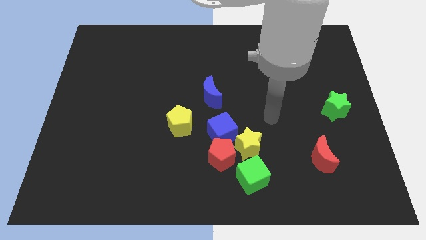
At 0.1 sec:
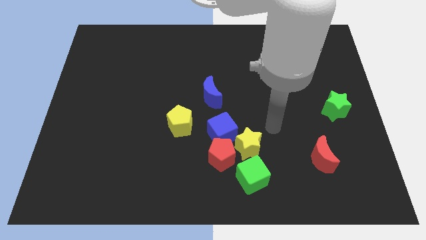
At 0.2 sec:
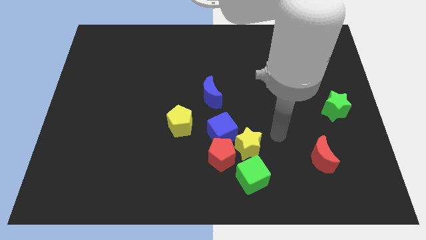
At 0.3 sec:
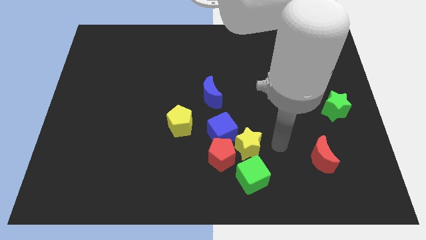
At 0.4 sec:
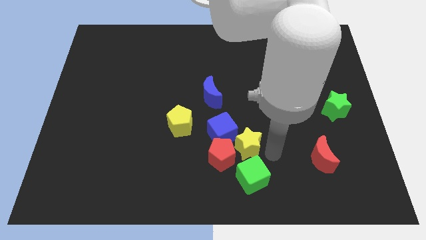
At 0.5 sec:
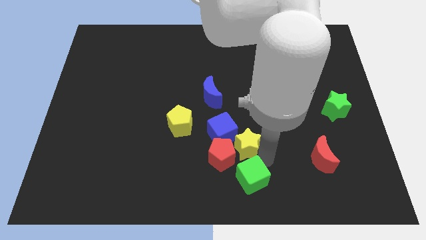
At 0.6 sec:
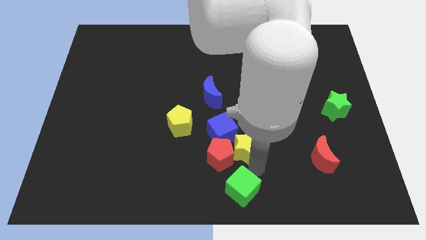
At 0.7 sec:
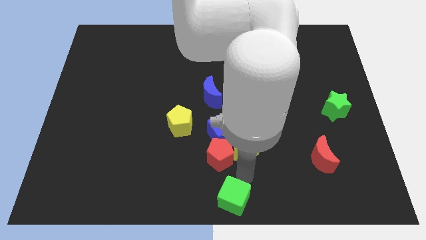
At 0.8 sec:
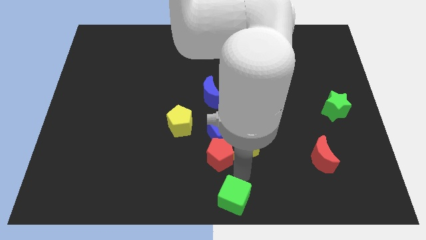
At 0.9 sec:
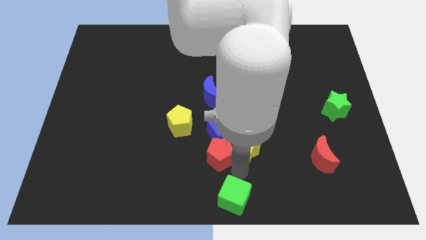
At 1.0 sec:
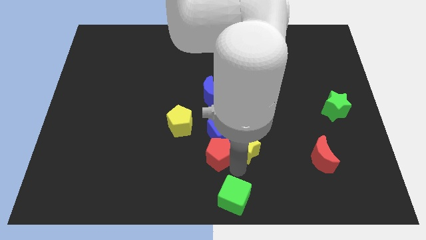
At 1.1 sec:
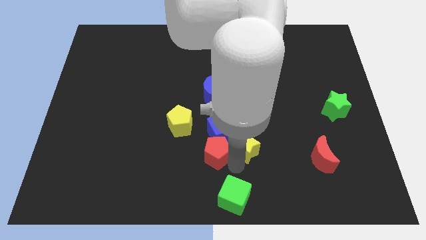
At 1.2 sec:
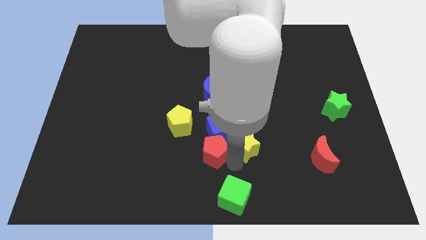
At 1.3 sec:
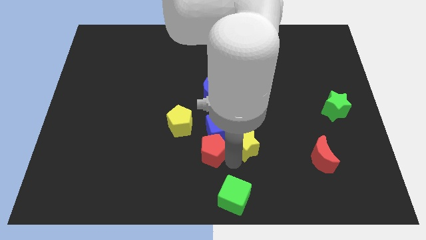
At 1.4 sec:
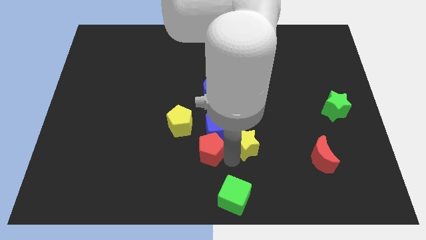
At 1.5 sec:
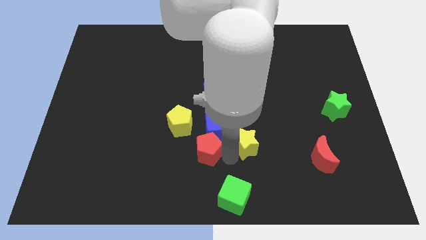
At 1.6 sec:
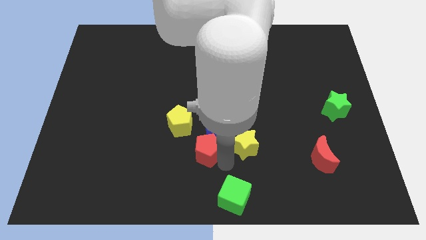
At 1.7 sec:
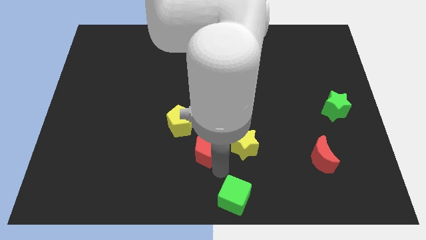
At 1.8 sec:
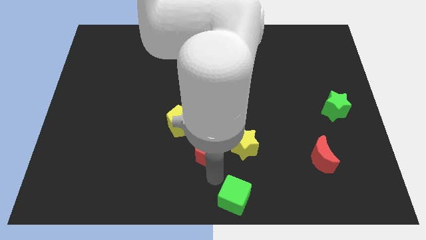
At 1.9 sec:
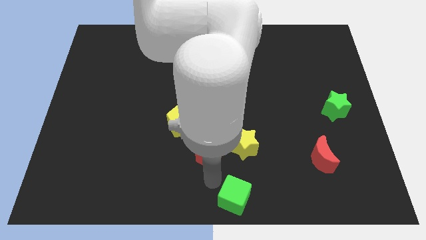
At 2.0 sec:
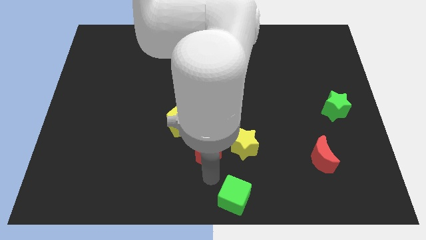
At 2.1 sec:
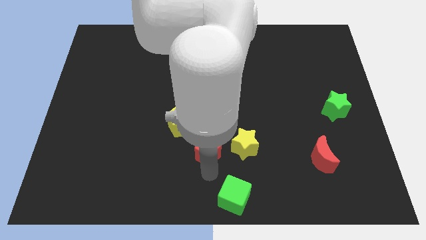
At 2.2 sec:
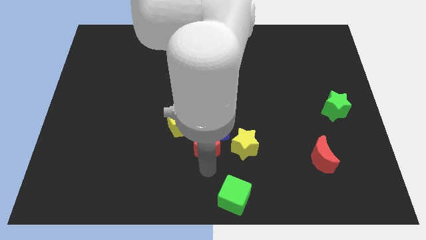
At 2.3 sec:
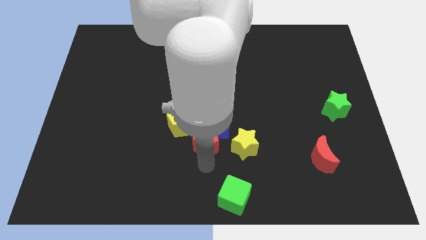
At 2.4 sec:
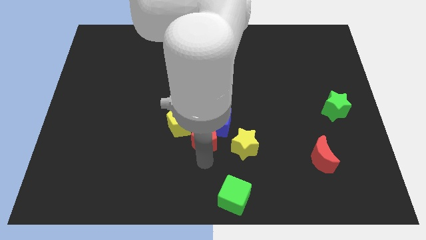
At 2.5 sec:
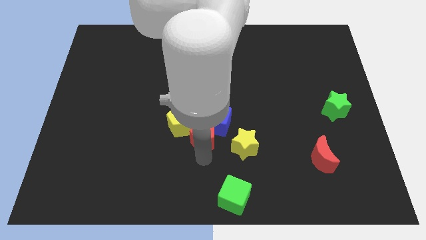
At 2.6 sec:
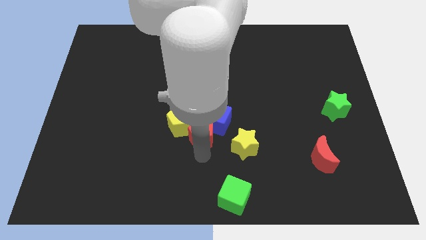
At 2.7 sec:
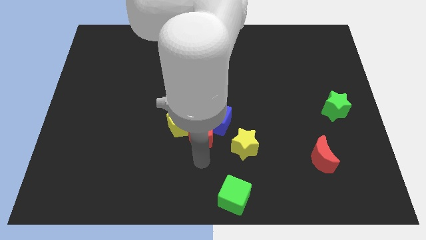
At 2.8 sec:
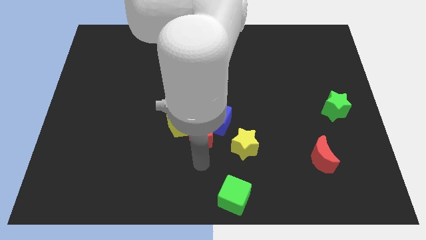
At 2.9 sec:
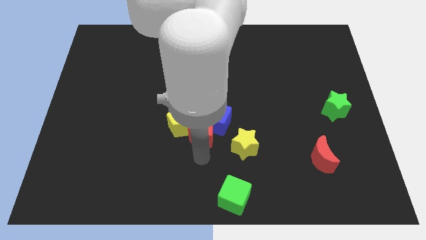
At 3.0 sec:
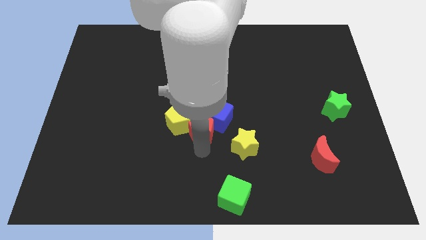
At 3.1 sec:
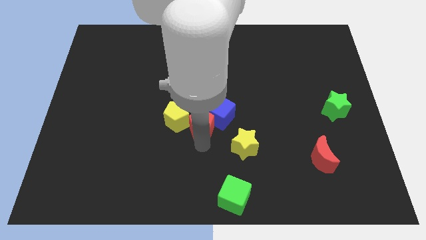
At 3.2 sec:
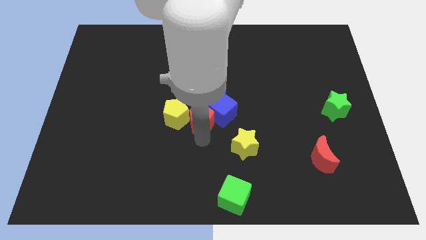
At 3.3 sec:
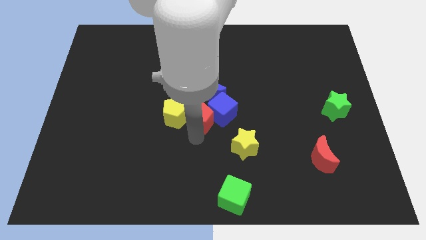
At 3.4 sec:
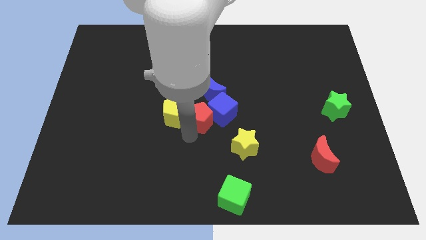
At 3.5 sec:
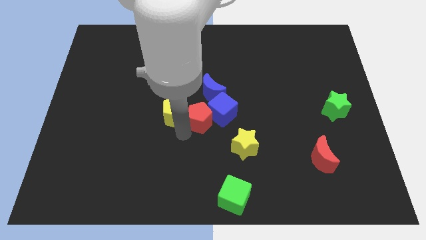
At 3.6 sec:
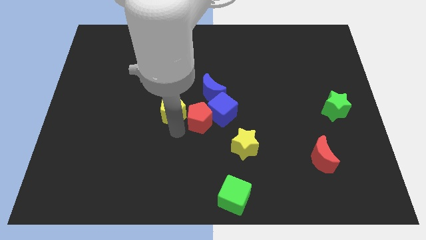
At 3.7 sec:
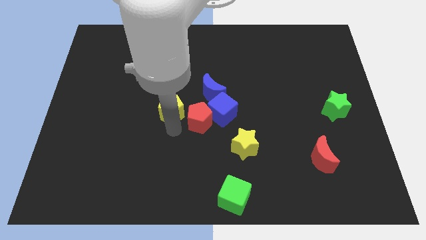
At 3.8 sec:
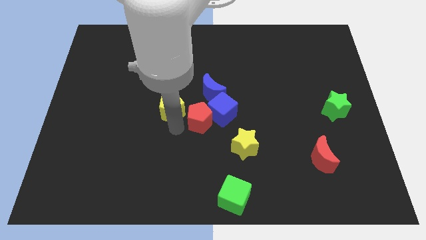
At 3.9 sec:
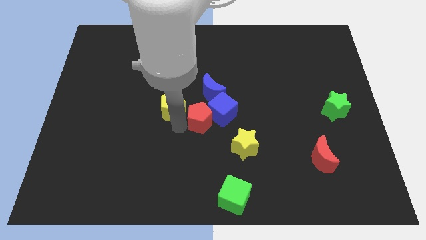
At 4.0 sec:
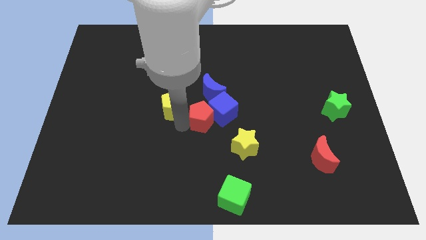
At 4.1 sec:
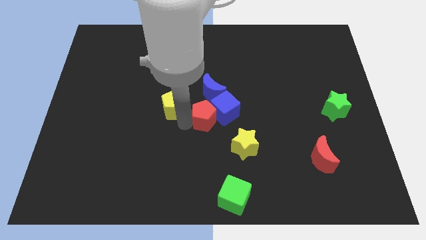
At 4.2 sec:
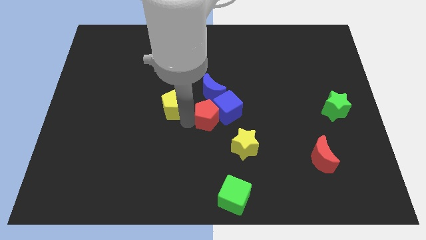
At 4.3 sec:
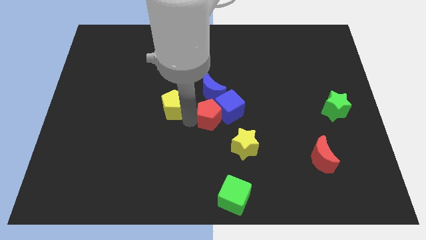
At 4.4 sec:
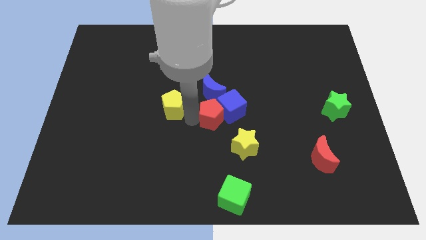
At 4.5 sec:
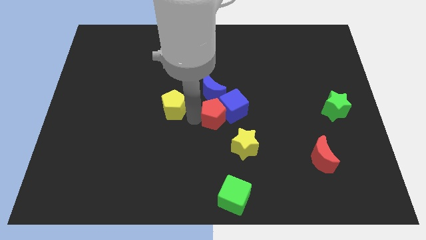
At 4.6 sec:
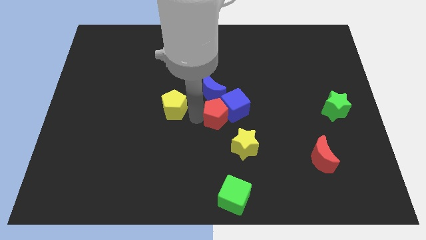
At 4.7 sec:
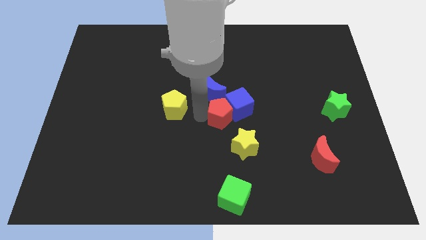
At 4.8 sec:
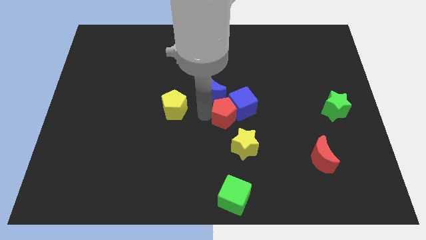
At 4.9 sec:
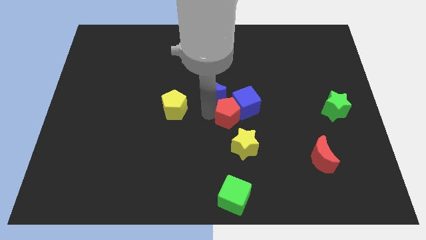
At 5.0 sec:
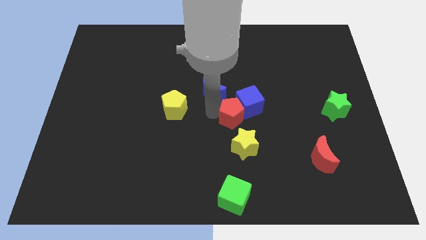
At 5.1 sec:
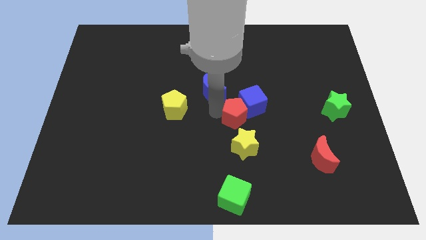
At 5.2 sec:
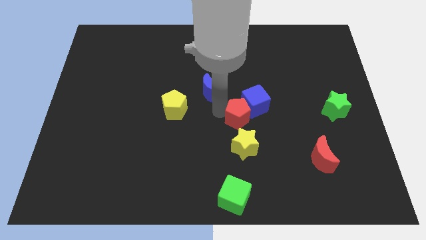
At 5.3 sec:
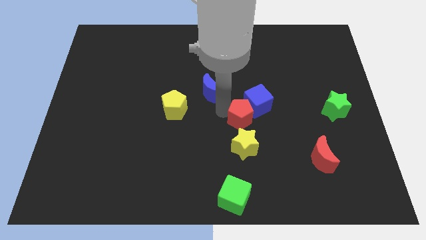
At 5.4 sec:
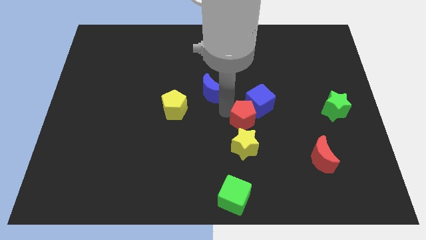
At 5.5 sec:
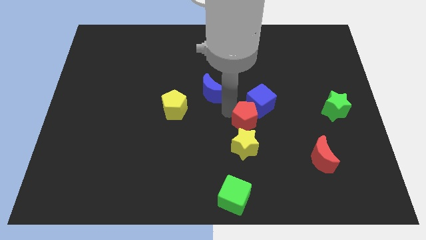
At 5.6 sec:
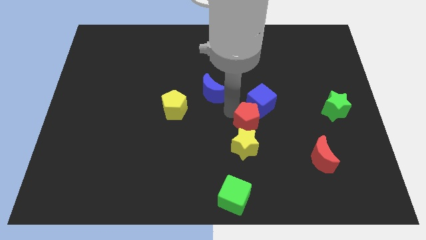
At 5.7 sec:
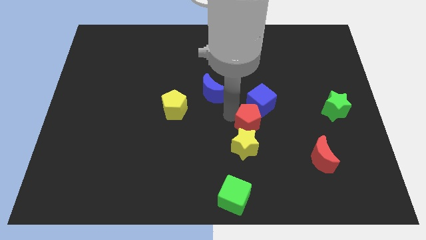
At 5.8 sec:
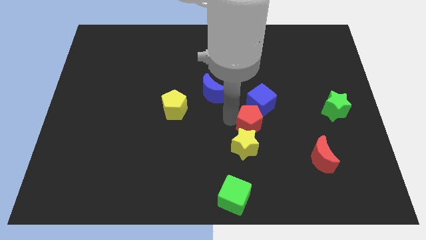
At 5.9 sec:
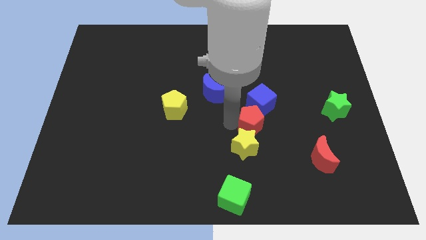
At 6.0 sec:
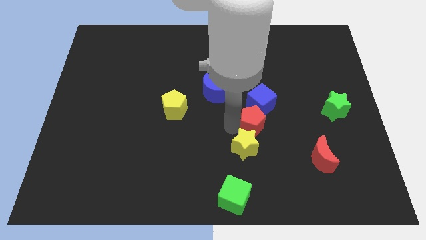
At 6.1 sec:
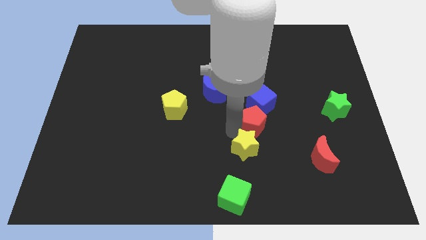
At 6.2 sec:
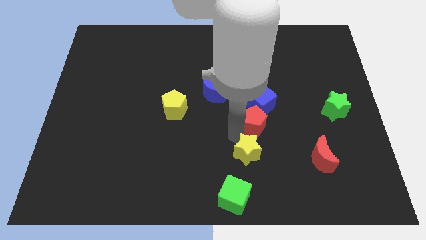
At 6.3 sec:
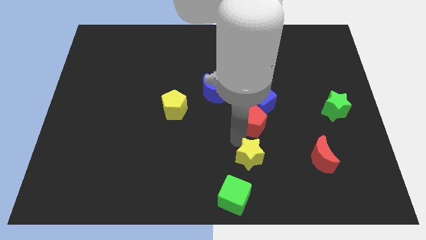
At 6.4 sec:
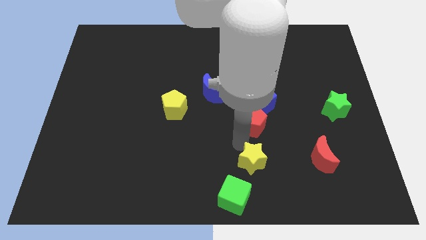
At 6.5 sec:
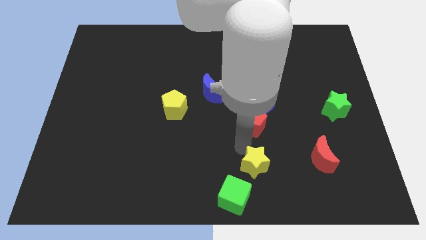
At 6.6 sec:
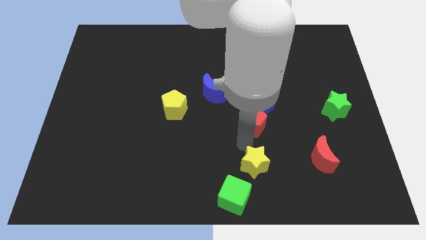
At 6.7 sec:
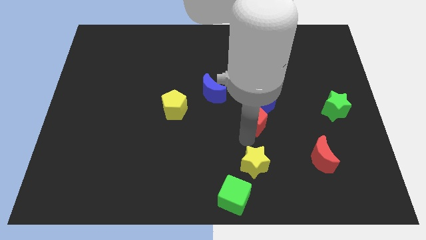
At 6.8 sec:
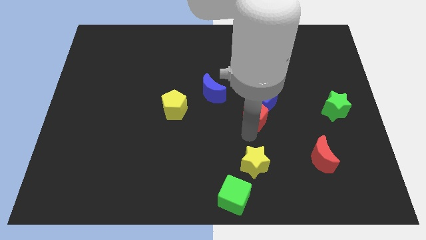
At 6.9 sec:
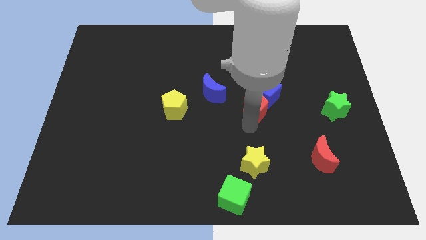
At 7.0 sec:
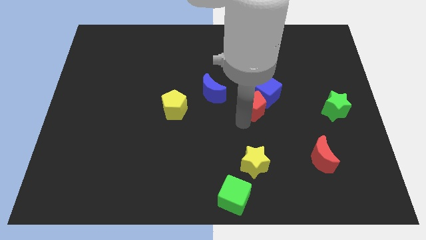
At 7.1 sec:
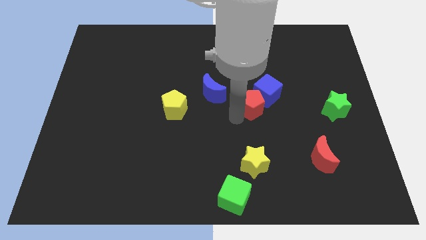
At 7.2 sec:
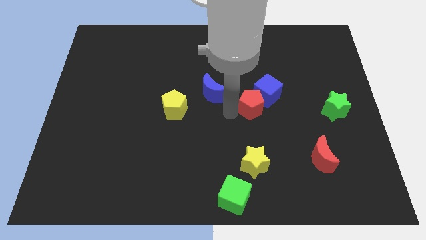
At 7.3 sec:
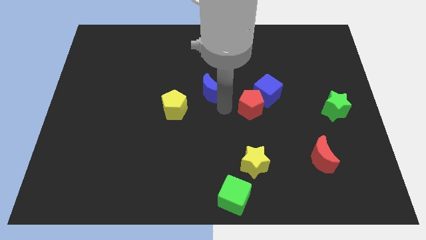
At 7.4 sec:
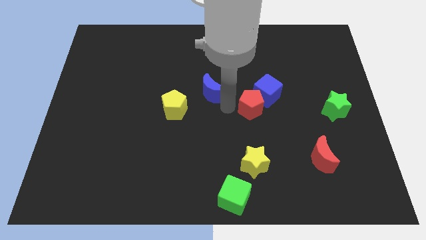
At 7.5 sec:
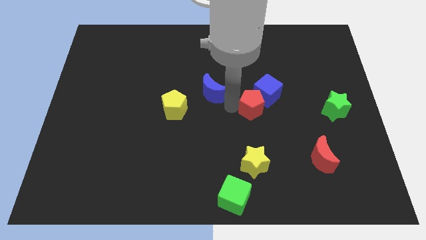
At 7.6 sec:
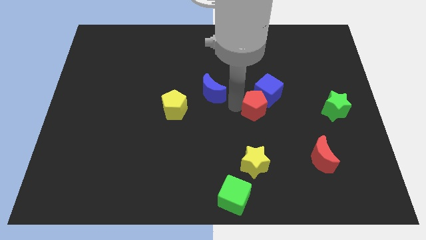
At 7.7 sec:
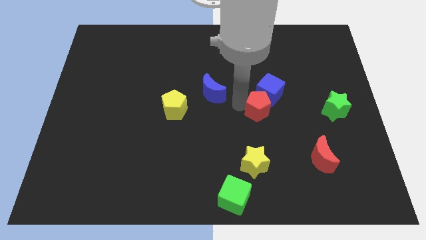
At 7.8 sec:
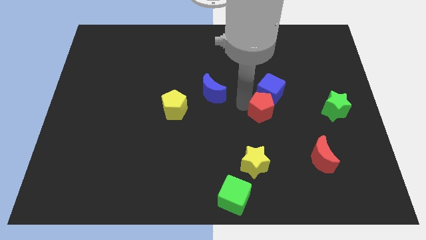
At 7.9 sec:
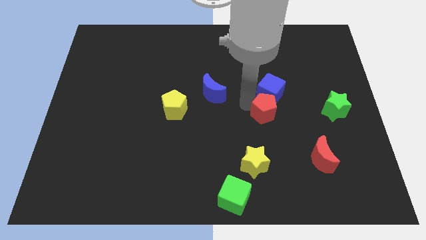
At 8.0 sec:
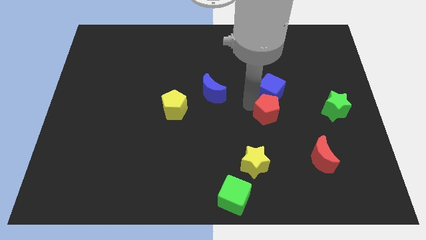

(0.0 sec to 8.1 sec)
push the red pentagon just left of the green star
